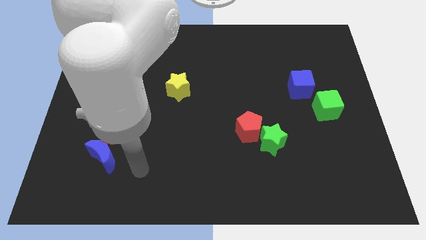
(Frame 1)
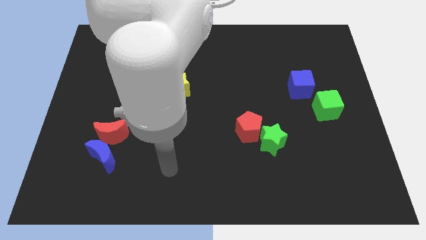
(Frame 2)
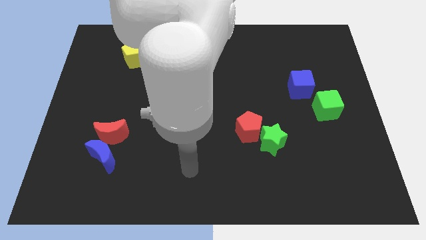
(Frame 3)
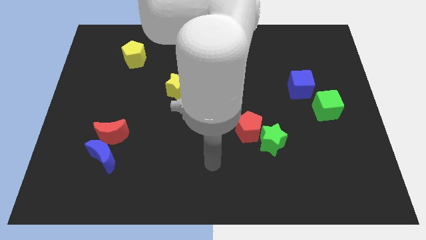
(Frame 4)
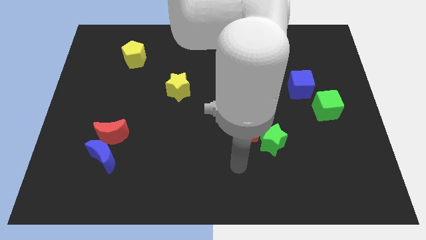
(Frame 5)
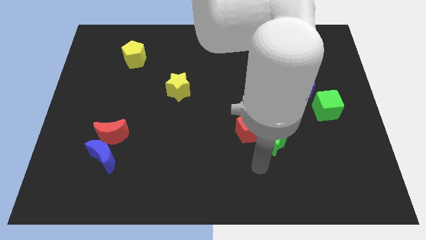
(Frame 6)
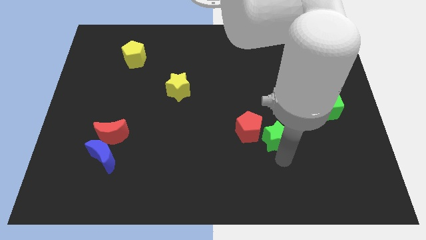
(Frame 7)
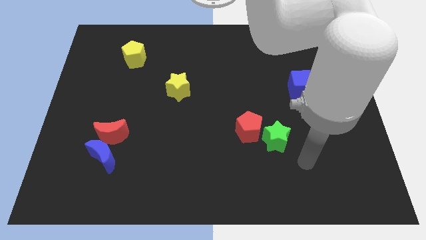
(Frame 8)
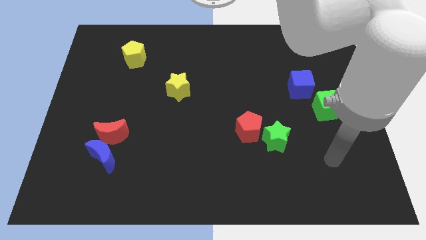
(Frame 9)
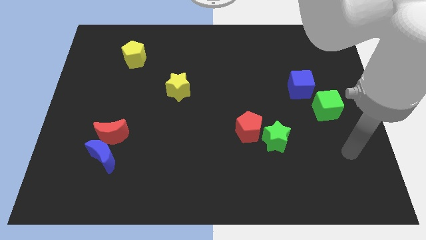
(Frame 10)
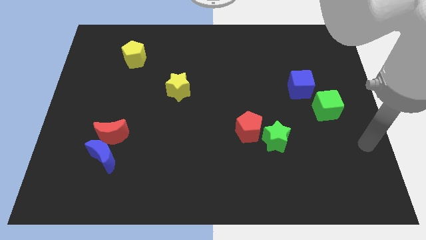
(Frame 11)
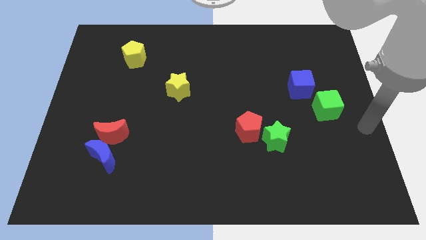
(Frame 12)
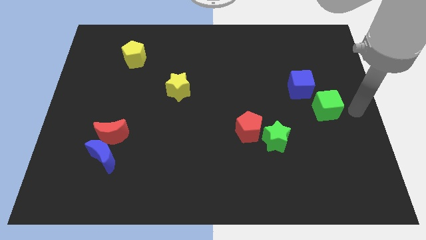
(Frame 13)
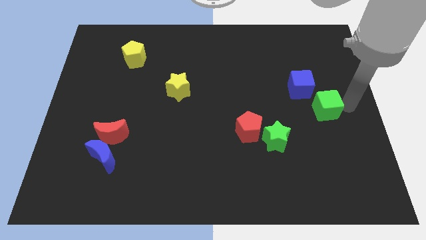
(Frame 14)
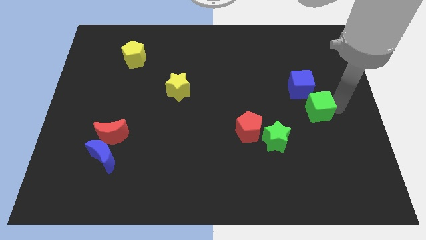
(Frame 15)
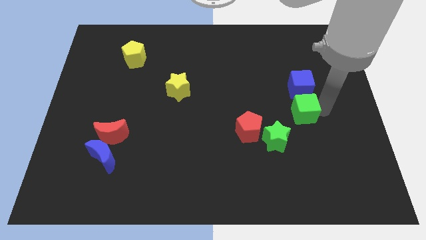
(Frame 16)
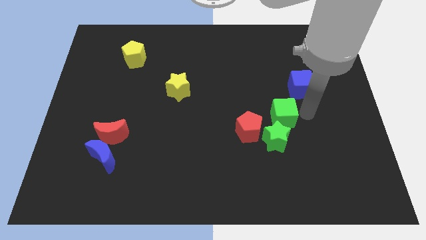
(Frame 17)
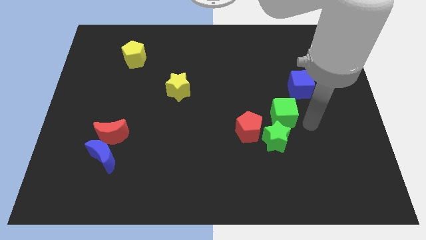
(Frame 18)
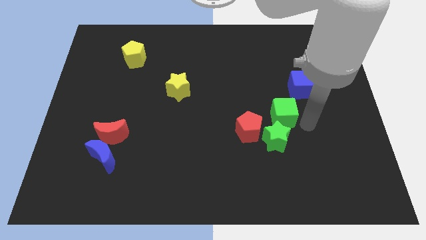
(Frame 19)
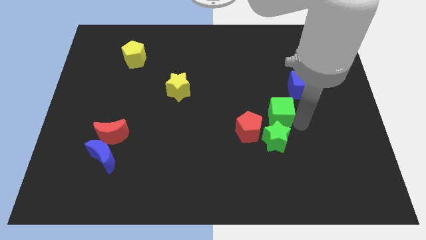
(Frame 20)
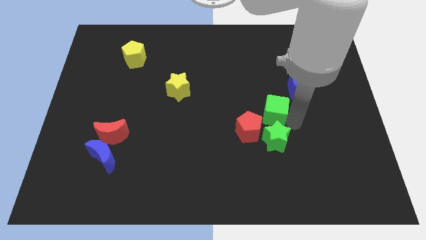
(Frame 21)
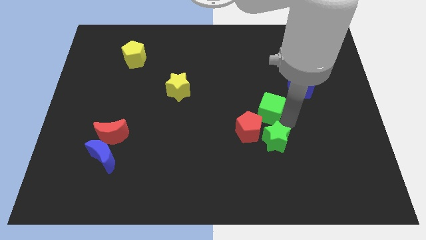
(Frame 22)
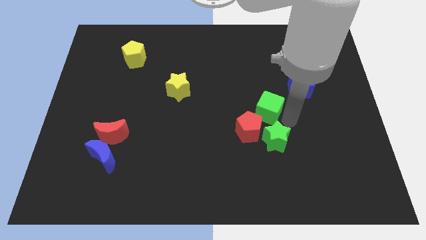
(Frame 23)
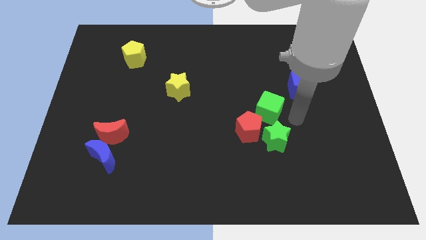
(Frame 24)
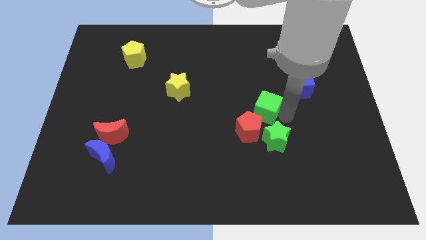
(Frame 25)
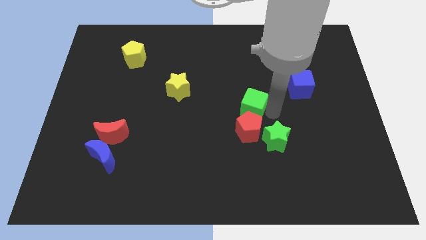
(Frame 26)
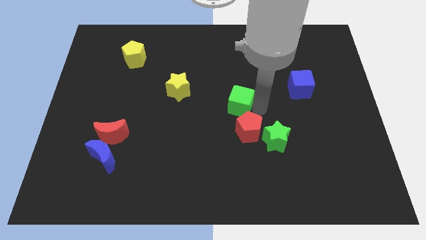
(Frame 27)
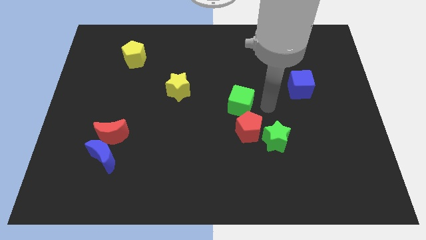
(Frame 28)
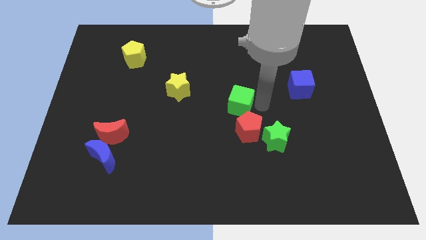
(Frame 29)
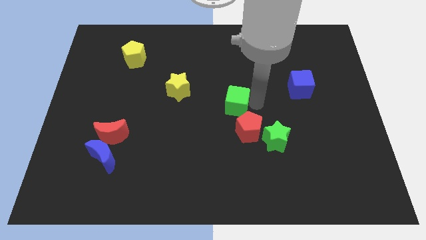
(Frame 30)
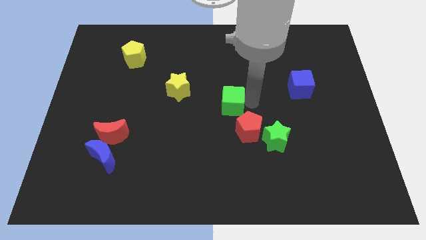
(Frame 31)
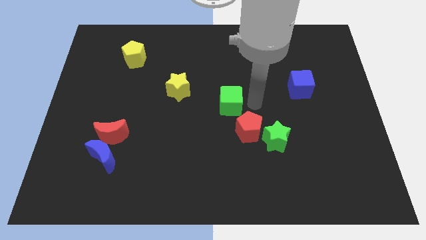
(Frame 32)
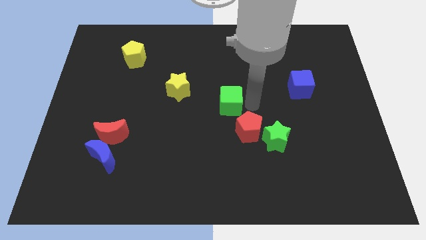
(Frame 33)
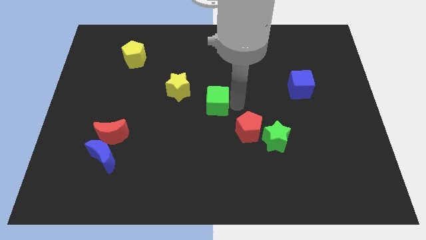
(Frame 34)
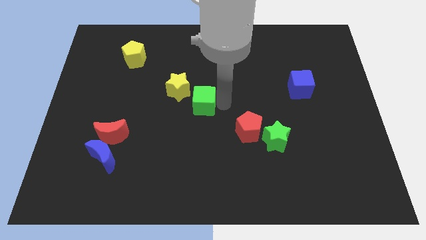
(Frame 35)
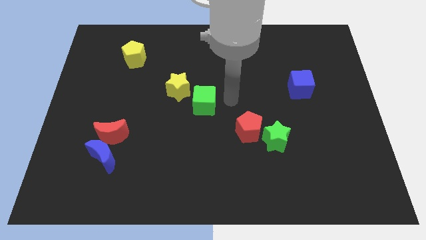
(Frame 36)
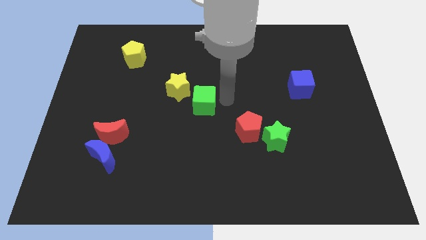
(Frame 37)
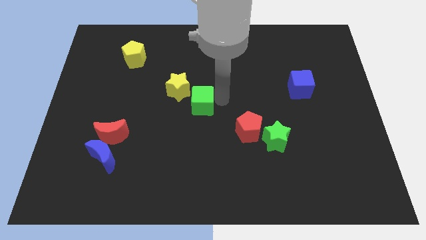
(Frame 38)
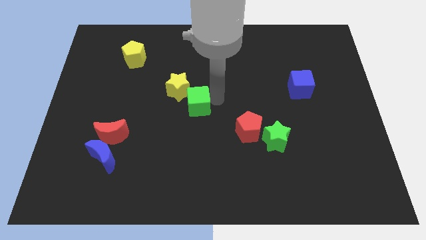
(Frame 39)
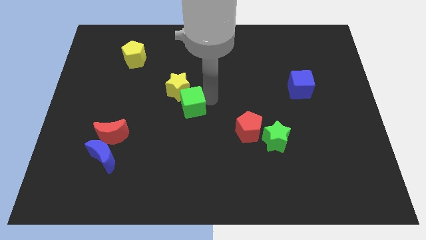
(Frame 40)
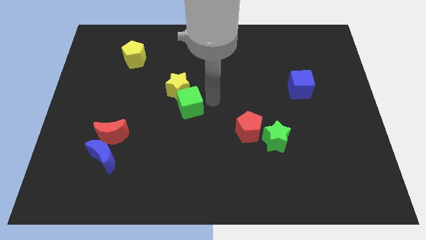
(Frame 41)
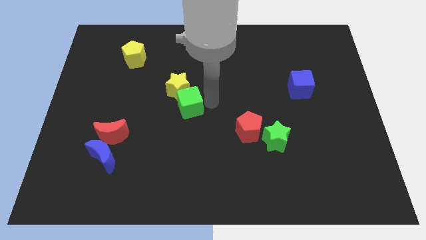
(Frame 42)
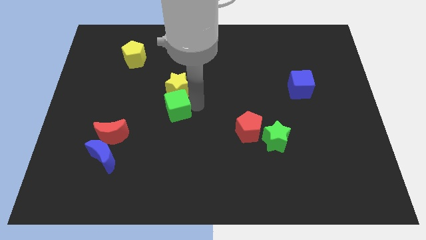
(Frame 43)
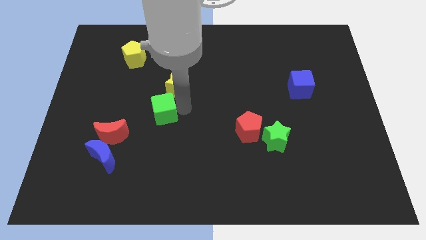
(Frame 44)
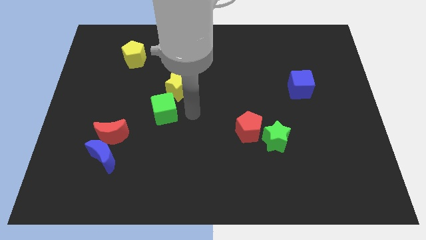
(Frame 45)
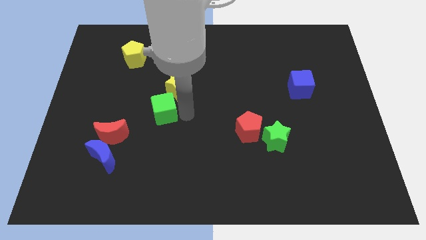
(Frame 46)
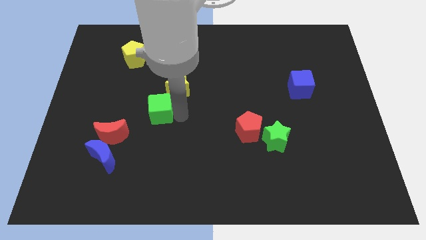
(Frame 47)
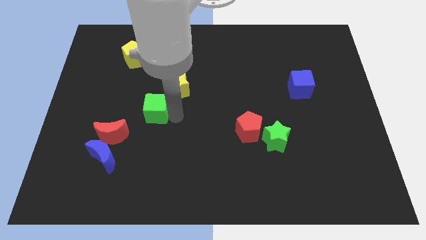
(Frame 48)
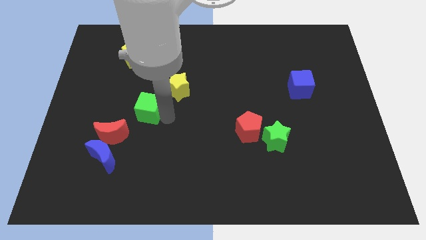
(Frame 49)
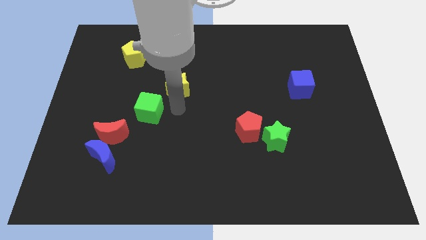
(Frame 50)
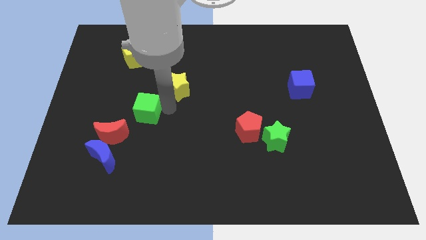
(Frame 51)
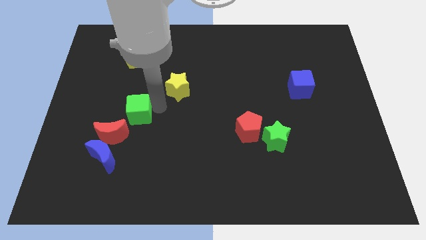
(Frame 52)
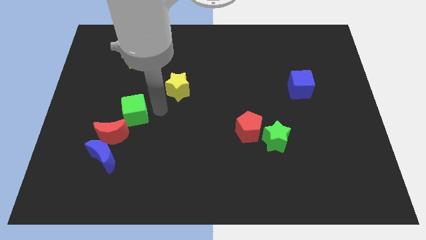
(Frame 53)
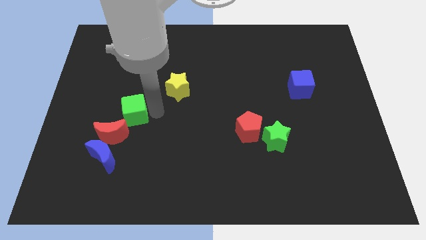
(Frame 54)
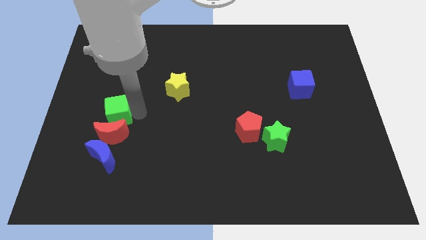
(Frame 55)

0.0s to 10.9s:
slide the green cube diagonally up and to the left of the red moon

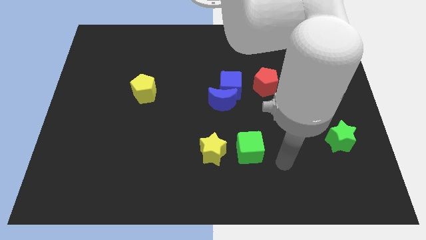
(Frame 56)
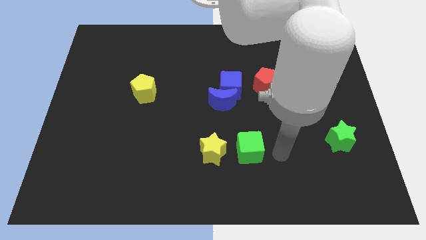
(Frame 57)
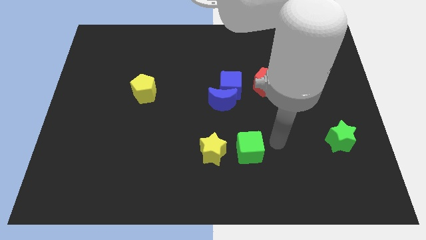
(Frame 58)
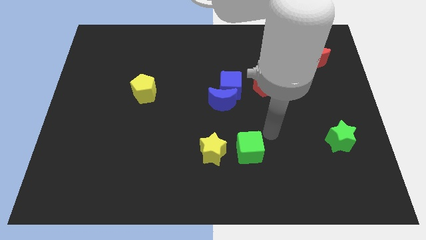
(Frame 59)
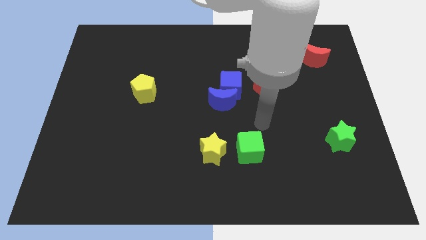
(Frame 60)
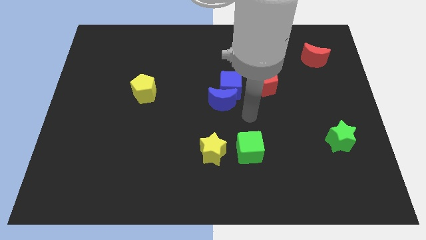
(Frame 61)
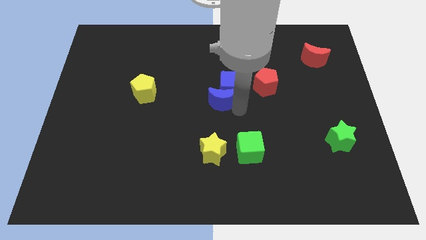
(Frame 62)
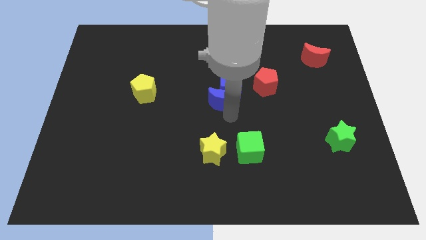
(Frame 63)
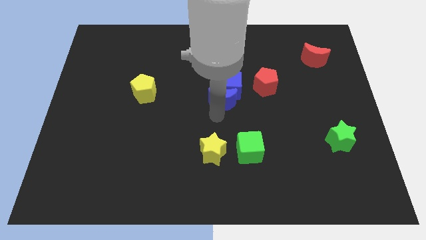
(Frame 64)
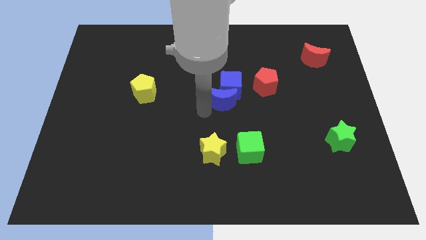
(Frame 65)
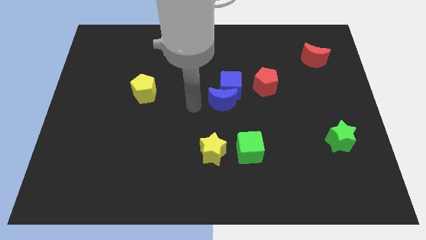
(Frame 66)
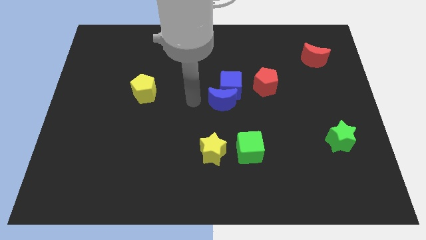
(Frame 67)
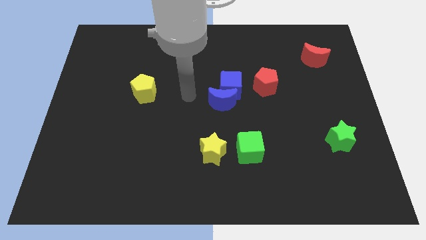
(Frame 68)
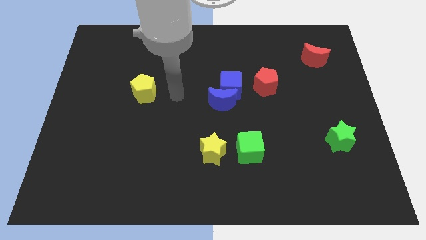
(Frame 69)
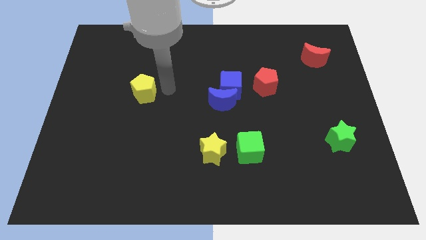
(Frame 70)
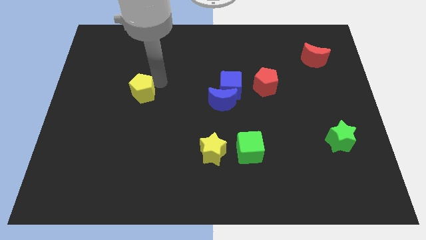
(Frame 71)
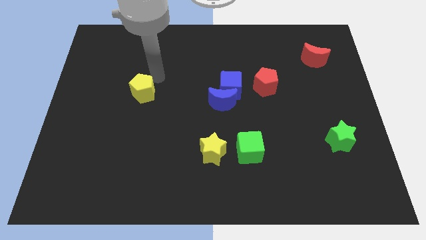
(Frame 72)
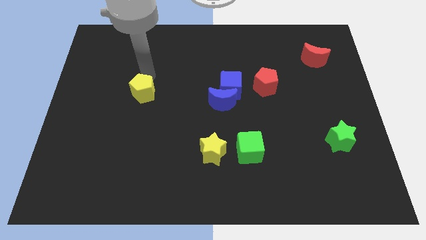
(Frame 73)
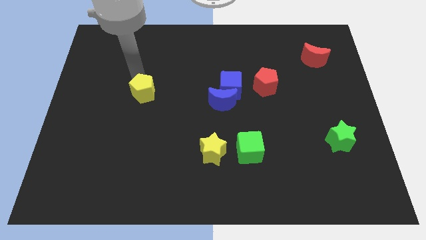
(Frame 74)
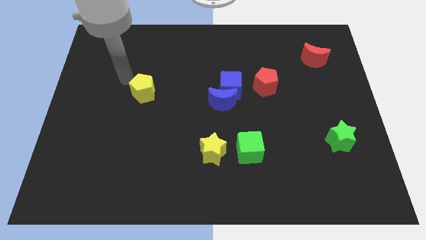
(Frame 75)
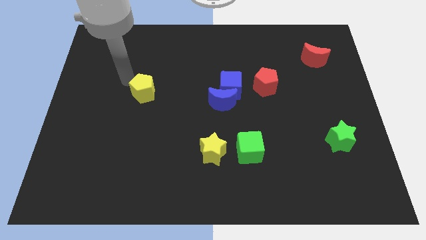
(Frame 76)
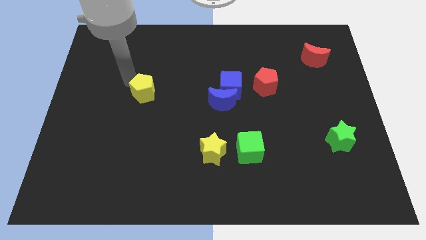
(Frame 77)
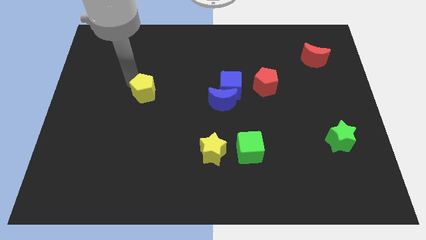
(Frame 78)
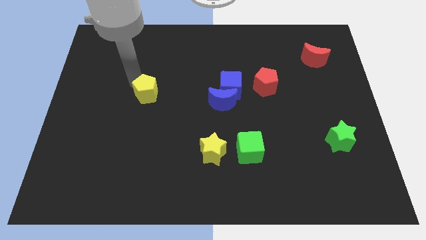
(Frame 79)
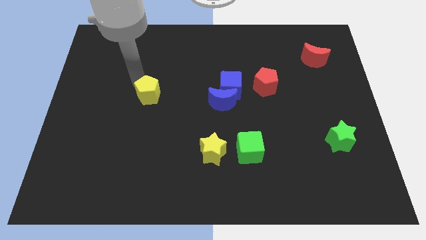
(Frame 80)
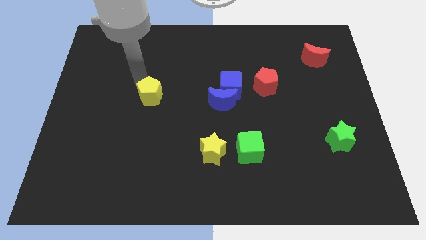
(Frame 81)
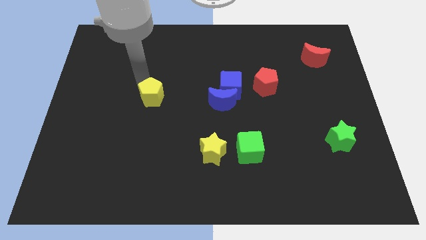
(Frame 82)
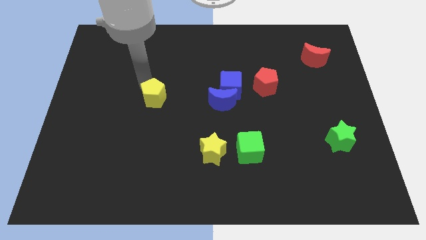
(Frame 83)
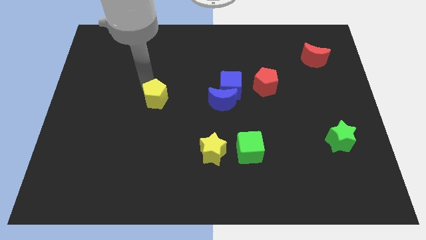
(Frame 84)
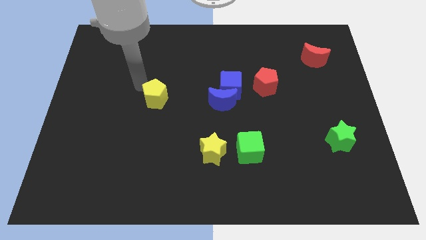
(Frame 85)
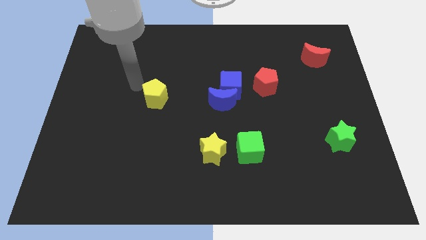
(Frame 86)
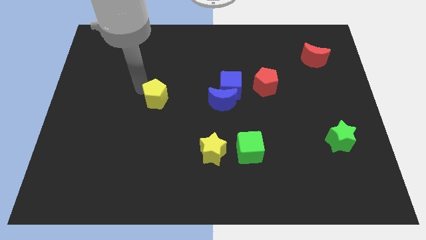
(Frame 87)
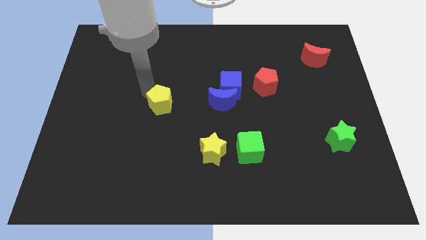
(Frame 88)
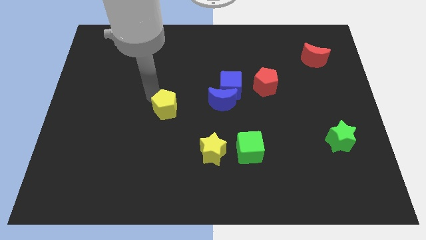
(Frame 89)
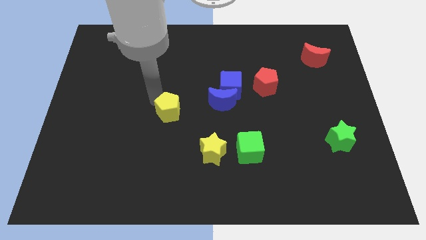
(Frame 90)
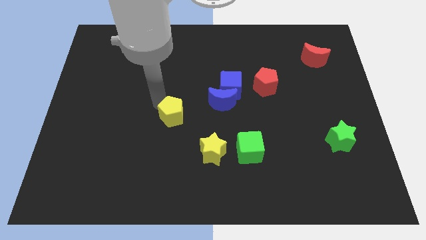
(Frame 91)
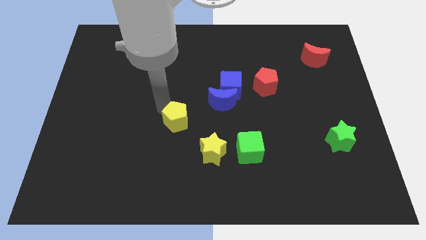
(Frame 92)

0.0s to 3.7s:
push the yellow pentagon to the bottom left of the blue moon
